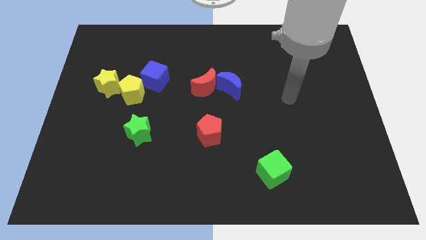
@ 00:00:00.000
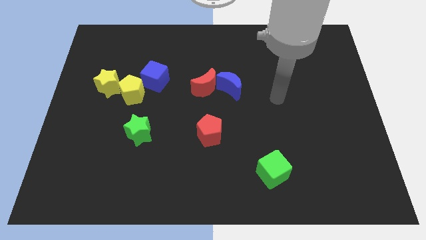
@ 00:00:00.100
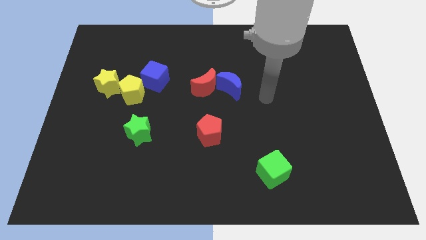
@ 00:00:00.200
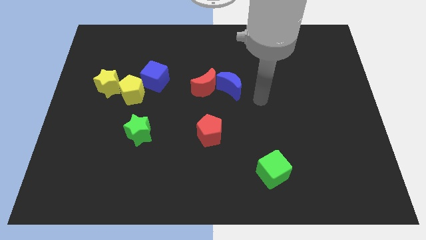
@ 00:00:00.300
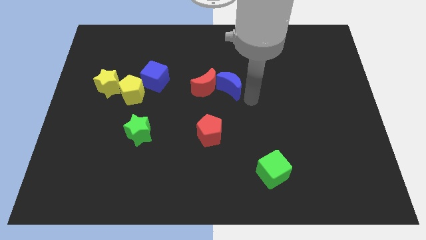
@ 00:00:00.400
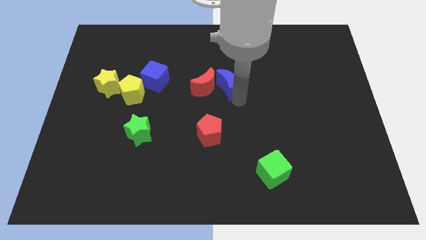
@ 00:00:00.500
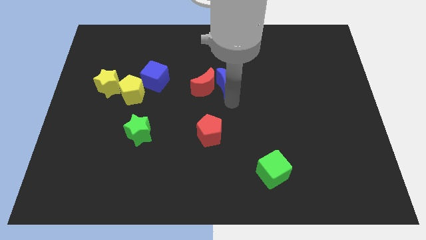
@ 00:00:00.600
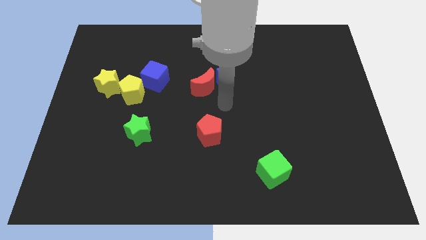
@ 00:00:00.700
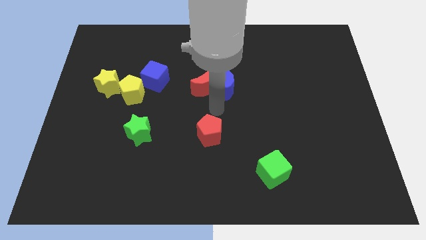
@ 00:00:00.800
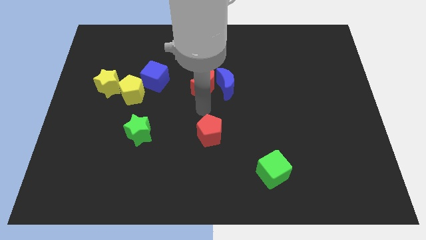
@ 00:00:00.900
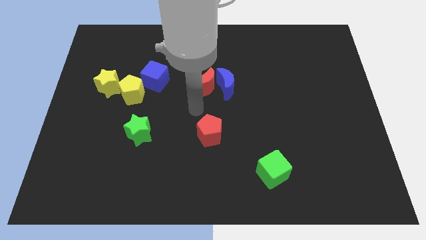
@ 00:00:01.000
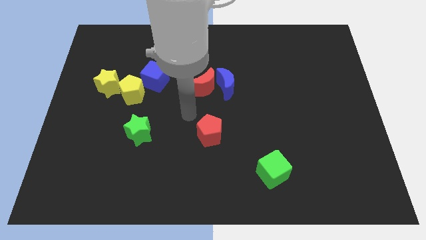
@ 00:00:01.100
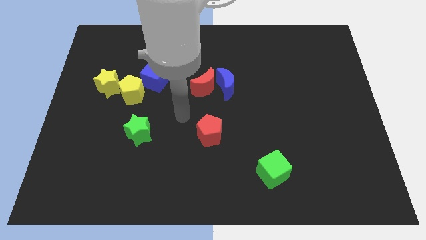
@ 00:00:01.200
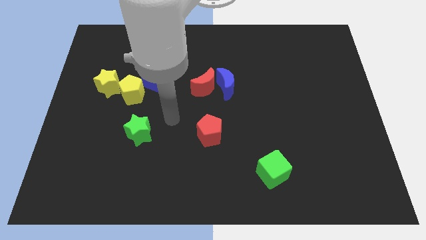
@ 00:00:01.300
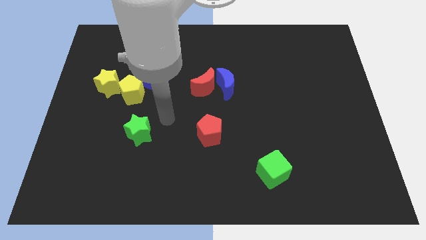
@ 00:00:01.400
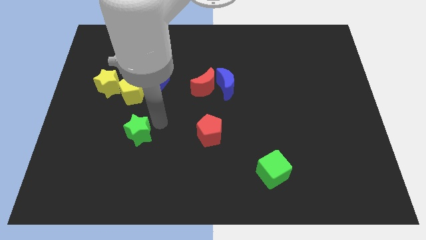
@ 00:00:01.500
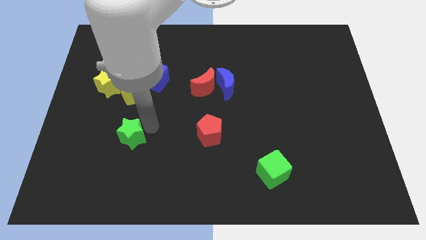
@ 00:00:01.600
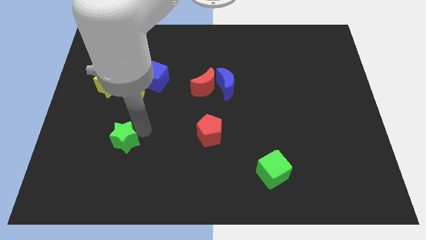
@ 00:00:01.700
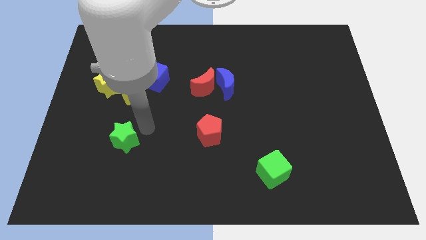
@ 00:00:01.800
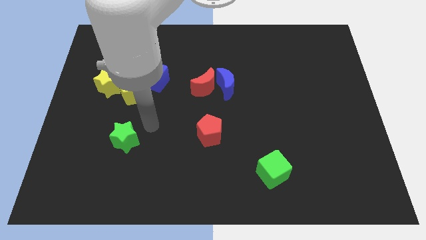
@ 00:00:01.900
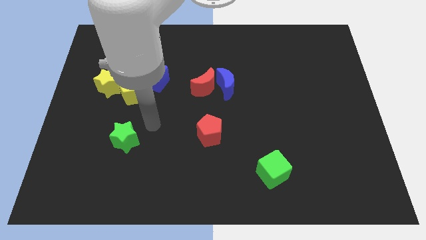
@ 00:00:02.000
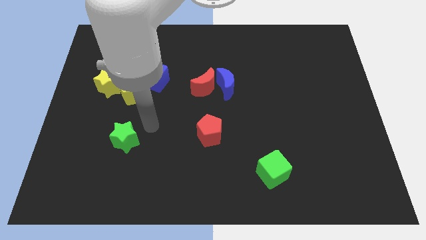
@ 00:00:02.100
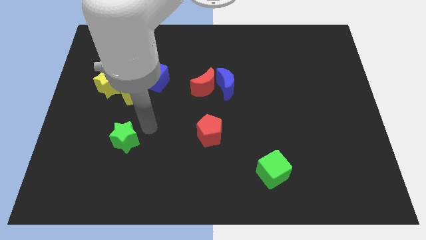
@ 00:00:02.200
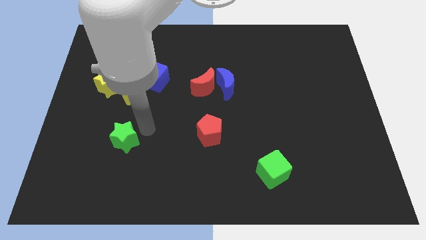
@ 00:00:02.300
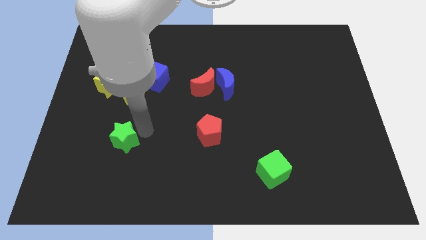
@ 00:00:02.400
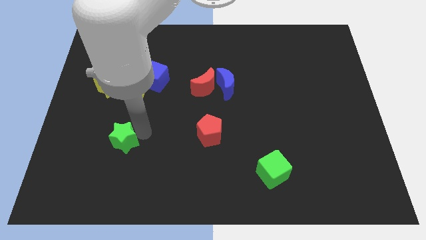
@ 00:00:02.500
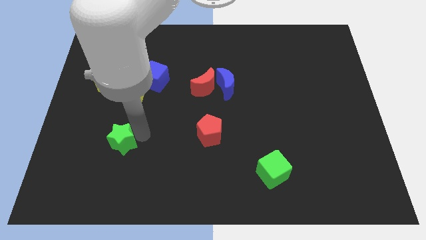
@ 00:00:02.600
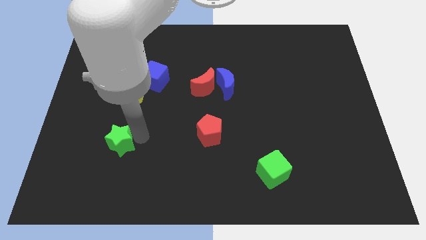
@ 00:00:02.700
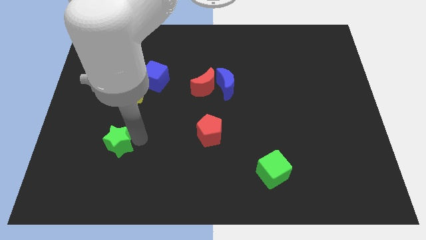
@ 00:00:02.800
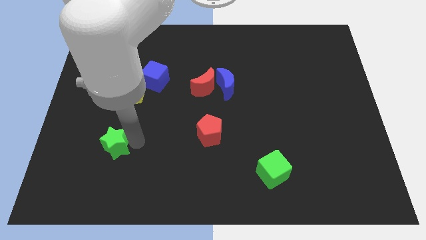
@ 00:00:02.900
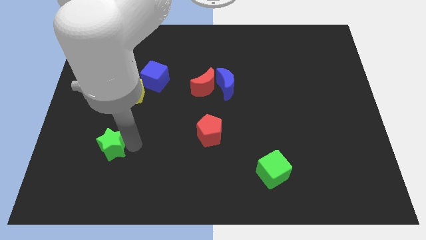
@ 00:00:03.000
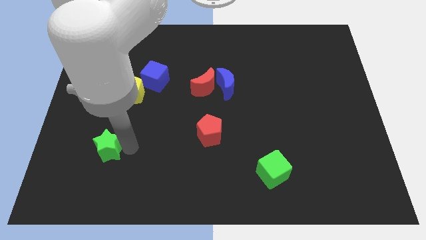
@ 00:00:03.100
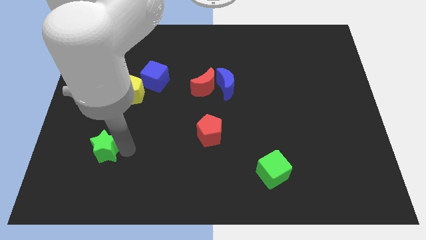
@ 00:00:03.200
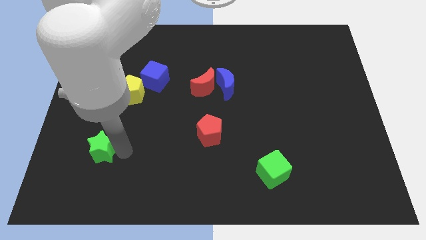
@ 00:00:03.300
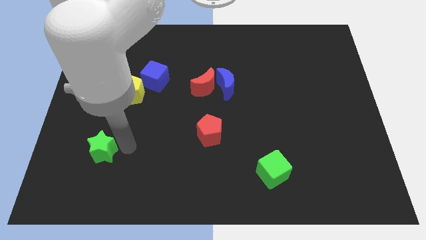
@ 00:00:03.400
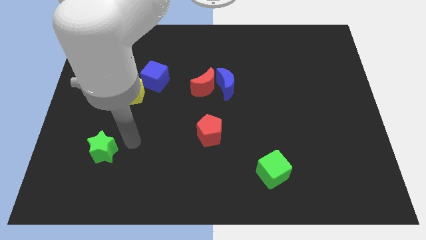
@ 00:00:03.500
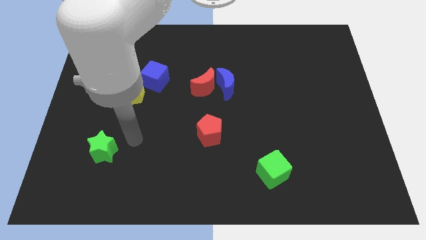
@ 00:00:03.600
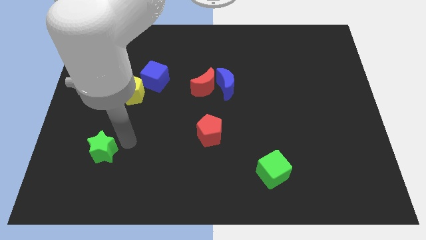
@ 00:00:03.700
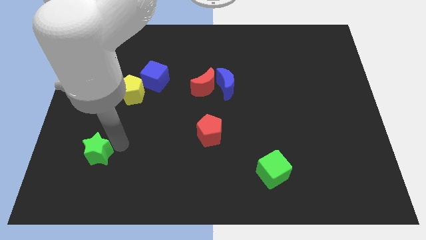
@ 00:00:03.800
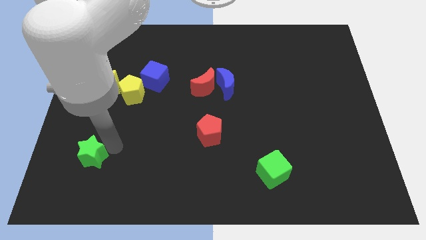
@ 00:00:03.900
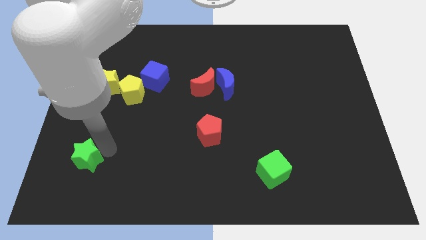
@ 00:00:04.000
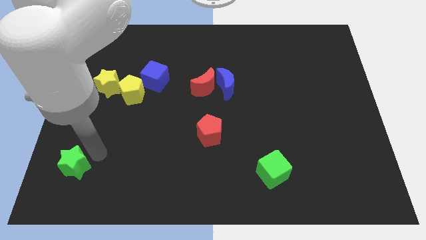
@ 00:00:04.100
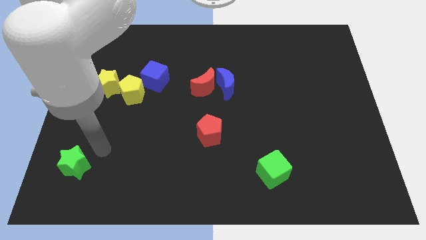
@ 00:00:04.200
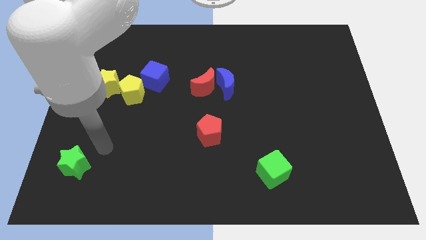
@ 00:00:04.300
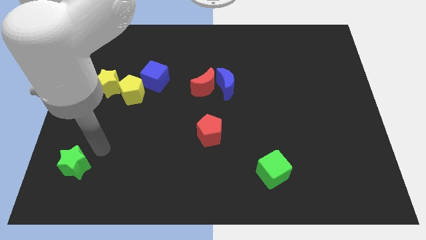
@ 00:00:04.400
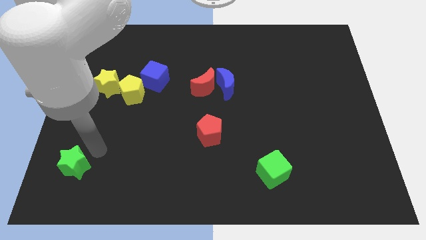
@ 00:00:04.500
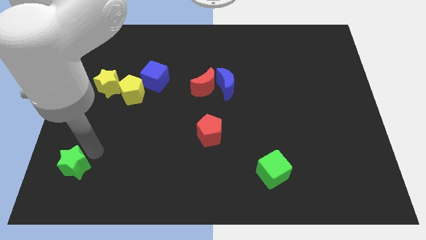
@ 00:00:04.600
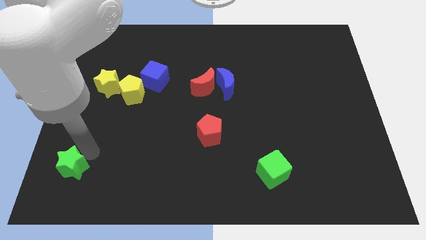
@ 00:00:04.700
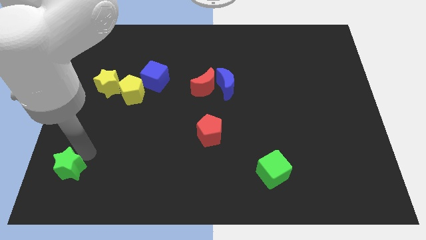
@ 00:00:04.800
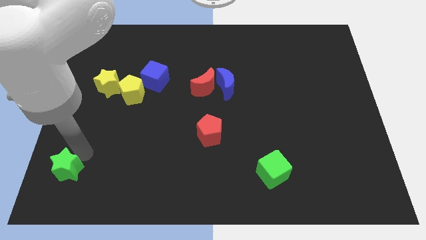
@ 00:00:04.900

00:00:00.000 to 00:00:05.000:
put the green star to the bottom left

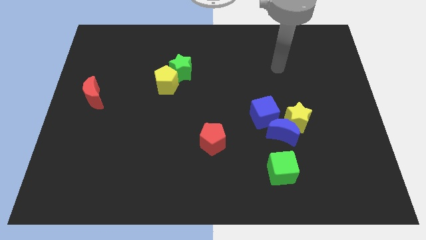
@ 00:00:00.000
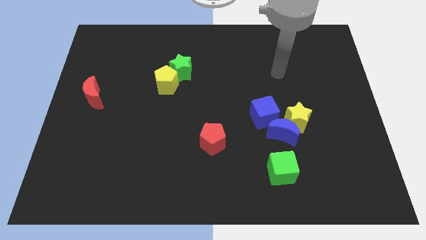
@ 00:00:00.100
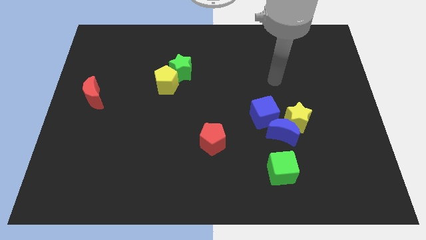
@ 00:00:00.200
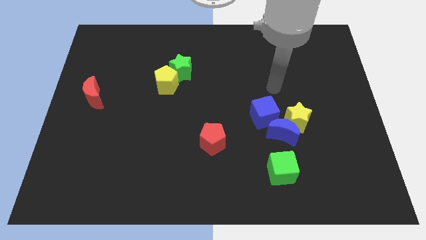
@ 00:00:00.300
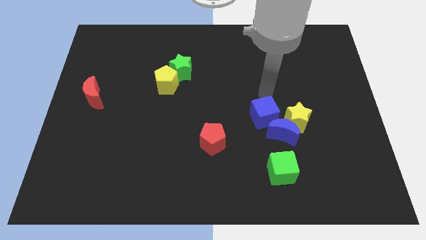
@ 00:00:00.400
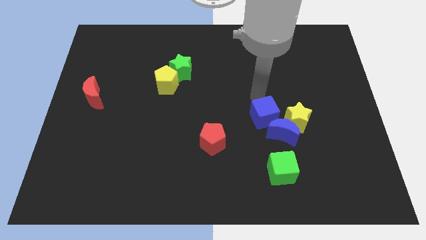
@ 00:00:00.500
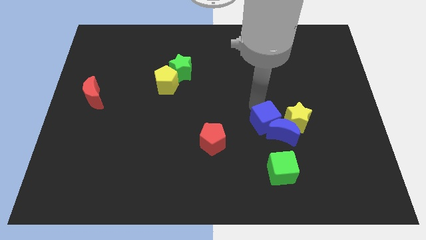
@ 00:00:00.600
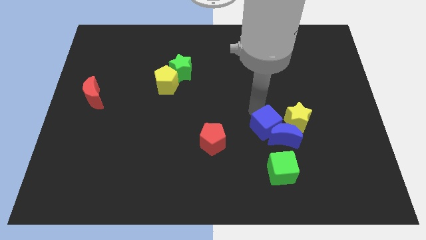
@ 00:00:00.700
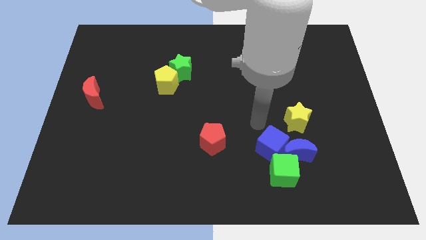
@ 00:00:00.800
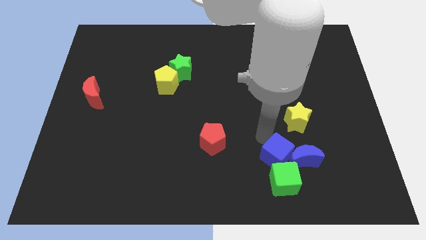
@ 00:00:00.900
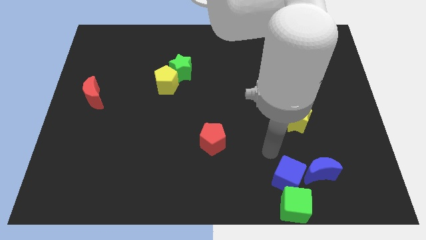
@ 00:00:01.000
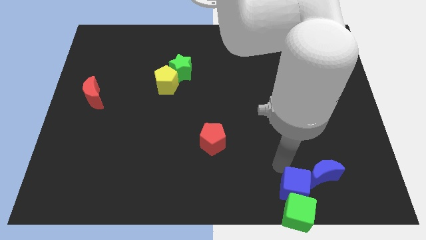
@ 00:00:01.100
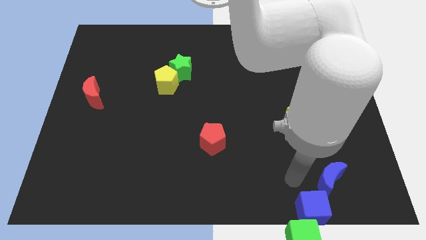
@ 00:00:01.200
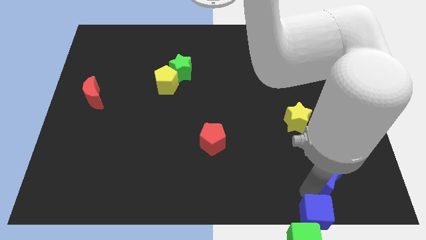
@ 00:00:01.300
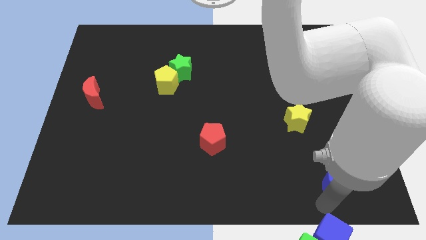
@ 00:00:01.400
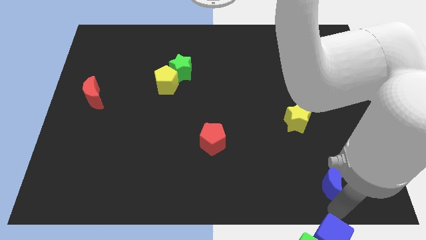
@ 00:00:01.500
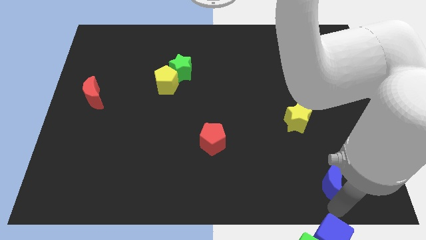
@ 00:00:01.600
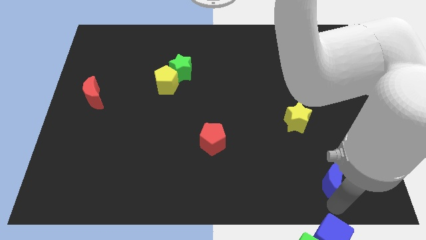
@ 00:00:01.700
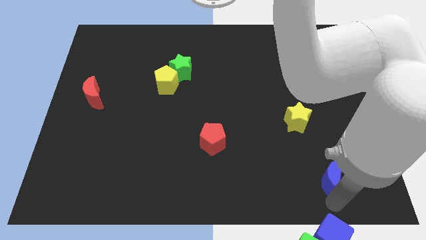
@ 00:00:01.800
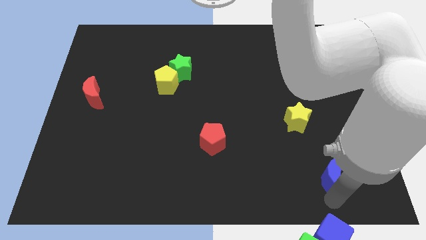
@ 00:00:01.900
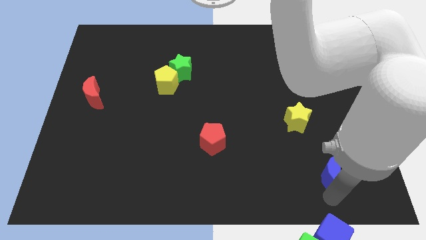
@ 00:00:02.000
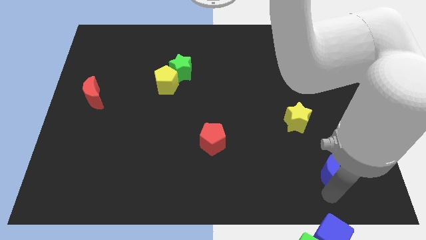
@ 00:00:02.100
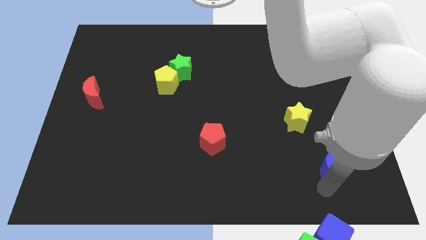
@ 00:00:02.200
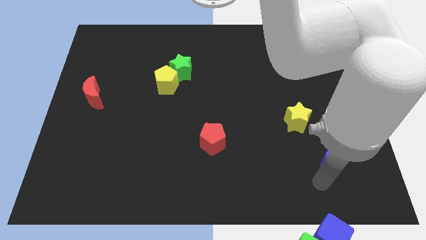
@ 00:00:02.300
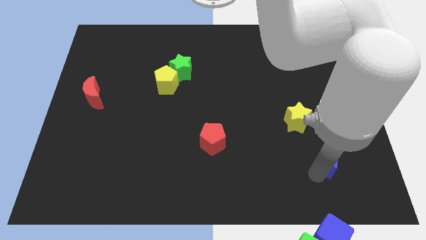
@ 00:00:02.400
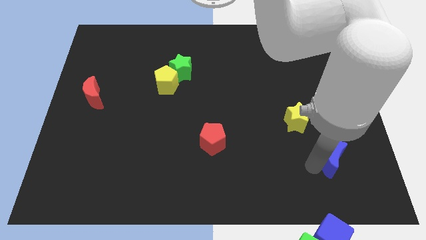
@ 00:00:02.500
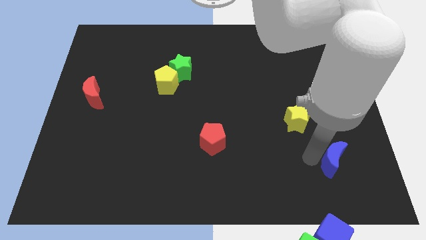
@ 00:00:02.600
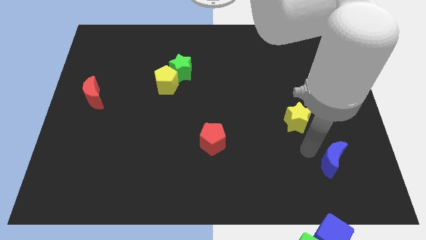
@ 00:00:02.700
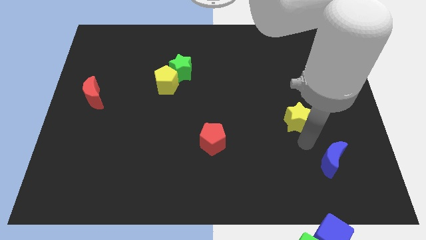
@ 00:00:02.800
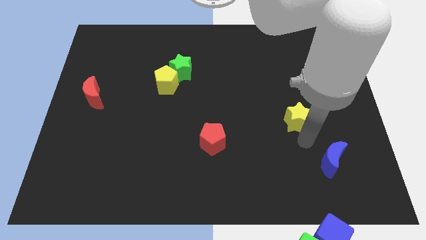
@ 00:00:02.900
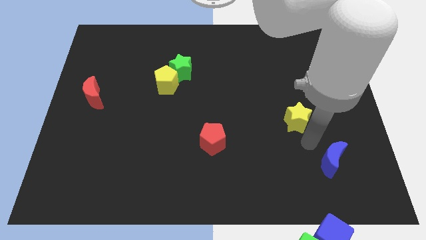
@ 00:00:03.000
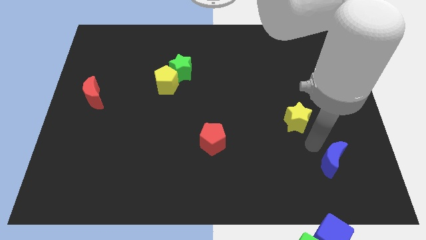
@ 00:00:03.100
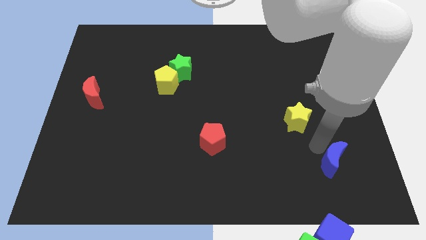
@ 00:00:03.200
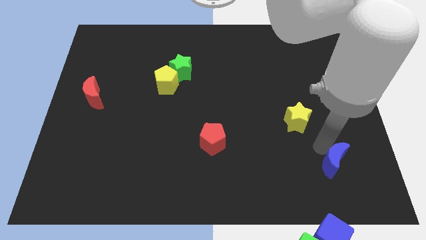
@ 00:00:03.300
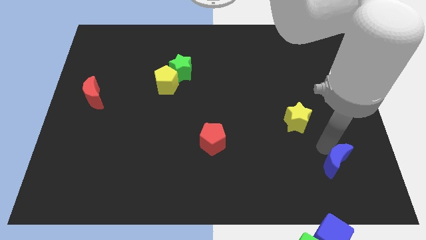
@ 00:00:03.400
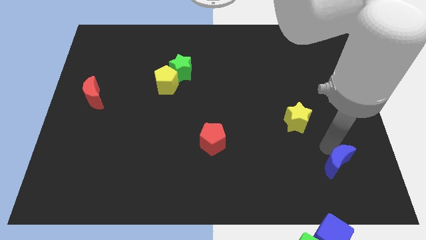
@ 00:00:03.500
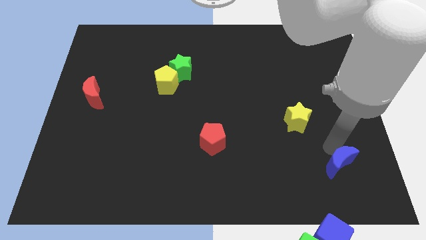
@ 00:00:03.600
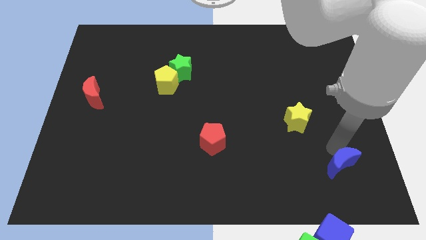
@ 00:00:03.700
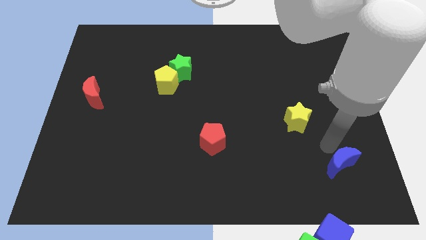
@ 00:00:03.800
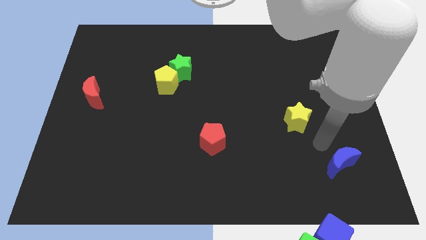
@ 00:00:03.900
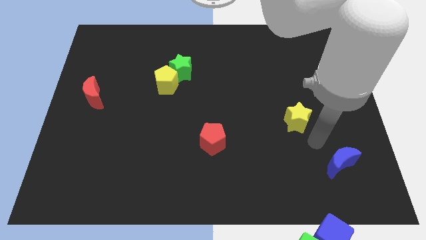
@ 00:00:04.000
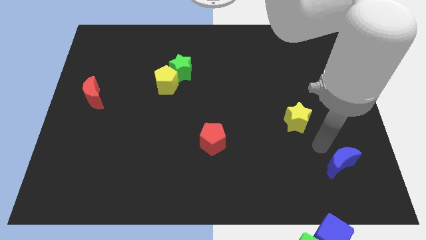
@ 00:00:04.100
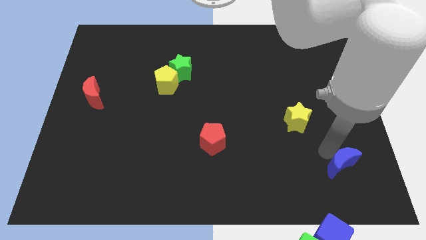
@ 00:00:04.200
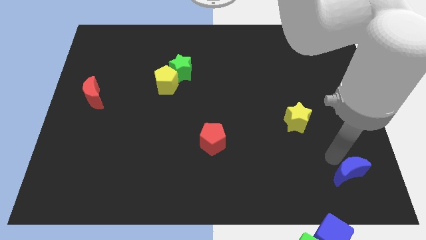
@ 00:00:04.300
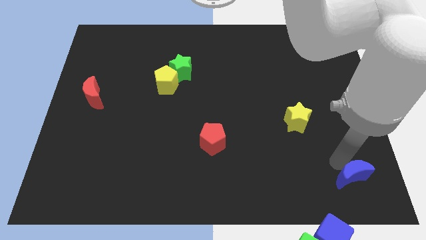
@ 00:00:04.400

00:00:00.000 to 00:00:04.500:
push the blue moon to the bottom right
